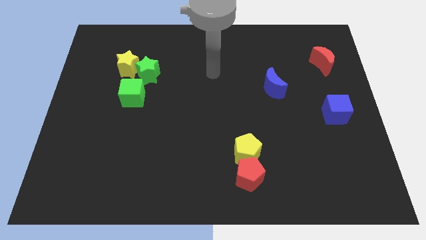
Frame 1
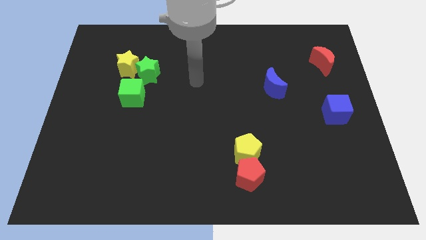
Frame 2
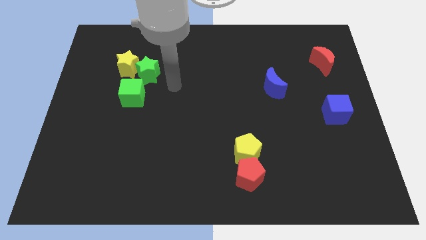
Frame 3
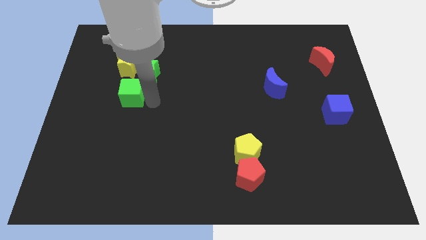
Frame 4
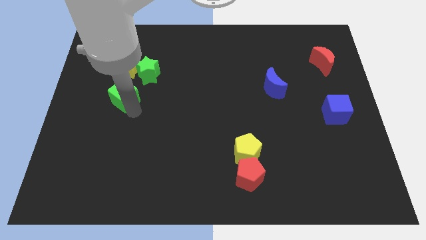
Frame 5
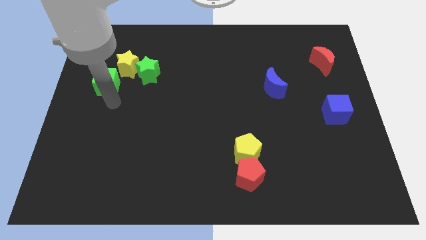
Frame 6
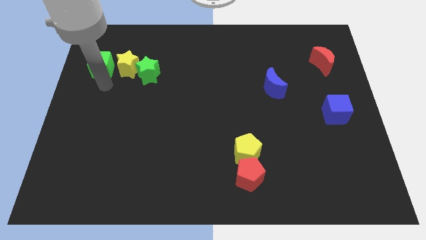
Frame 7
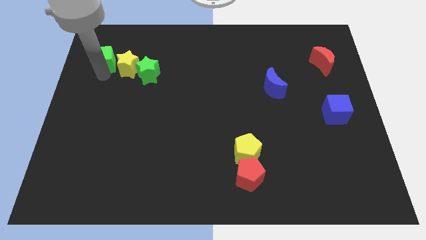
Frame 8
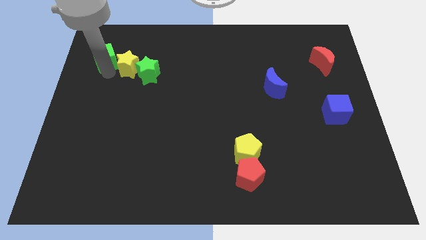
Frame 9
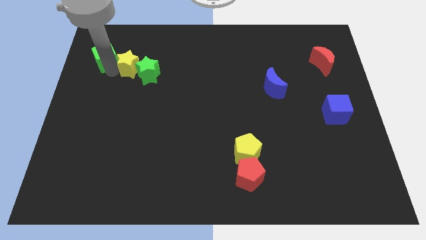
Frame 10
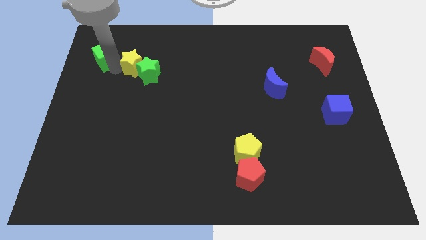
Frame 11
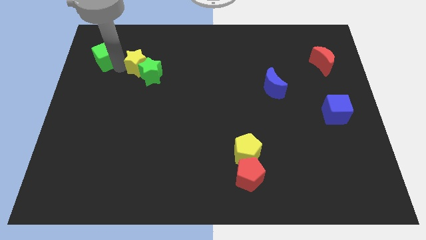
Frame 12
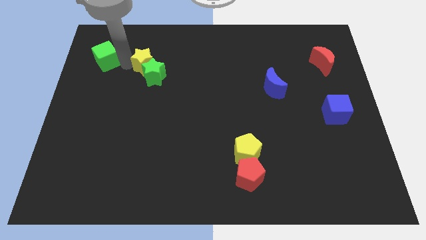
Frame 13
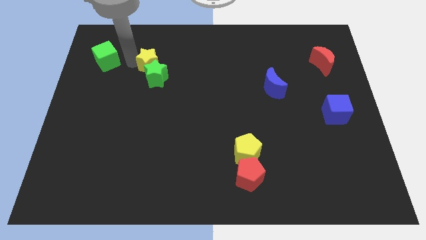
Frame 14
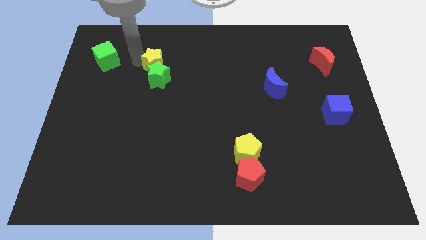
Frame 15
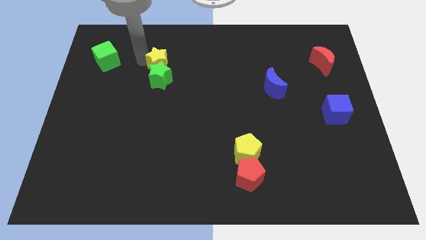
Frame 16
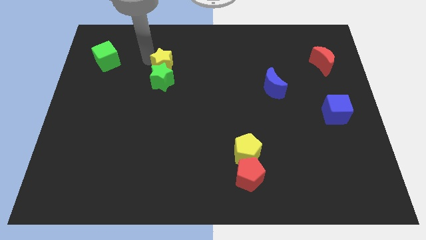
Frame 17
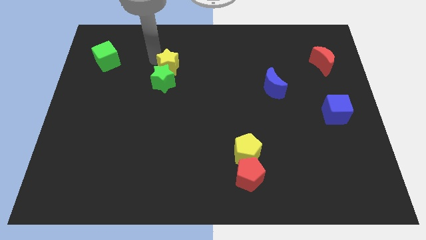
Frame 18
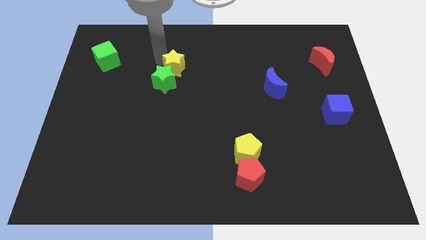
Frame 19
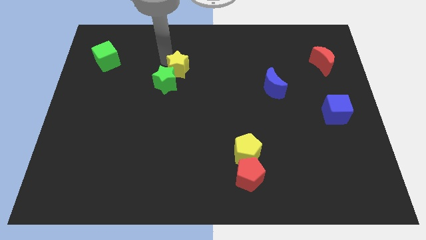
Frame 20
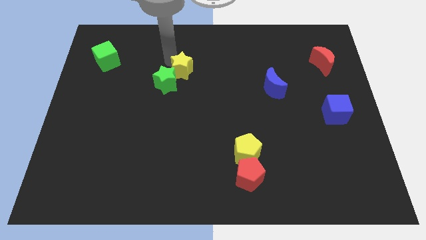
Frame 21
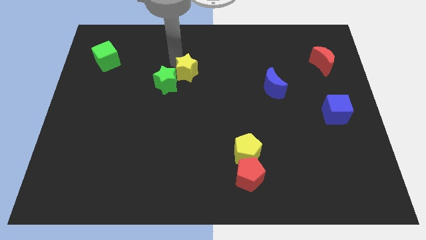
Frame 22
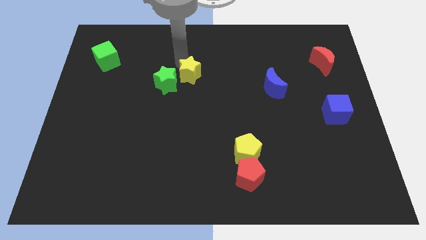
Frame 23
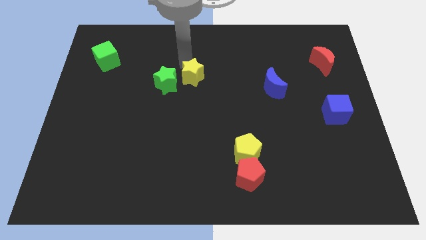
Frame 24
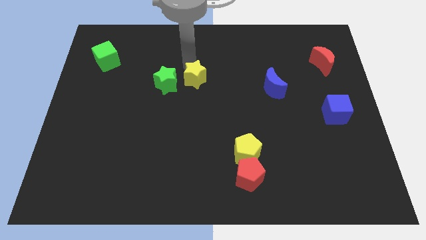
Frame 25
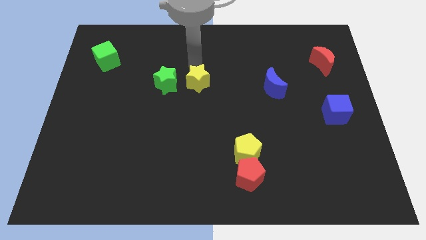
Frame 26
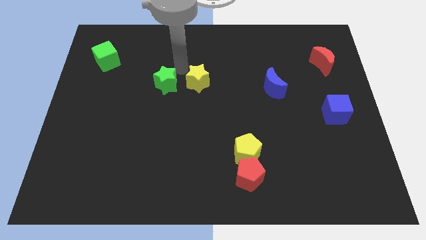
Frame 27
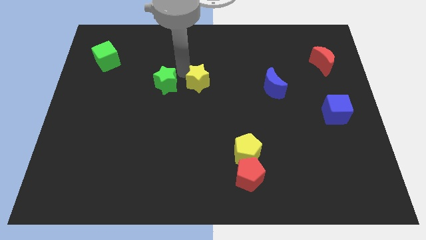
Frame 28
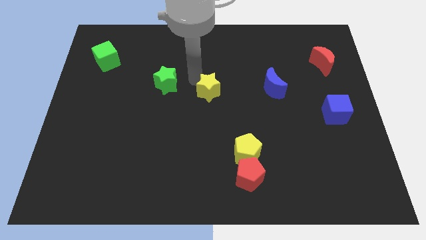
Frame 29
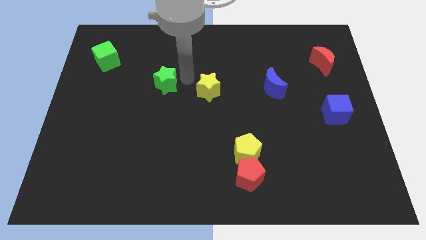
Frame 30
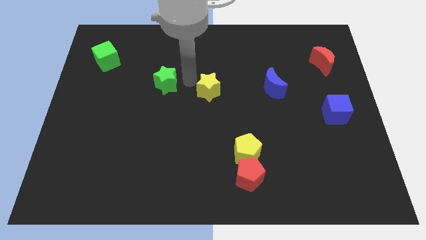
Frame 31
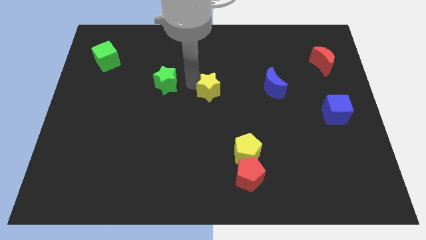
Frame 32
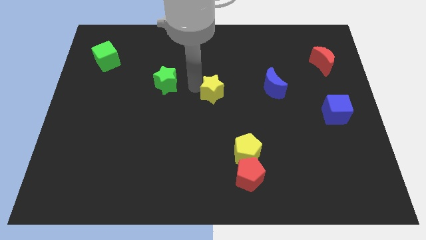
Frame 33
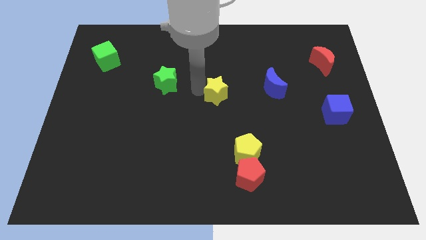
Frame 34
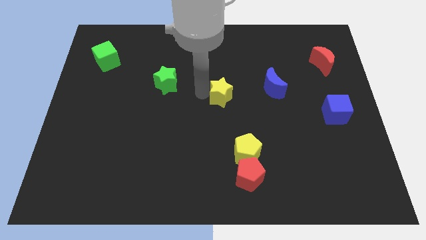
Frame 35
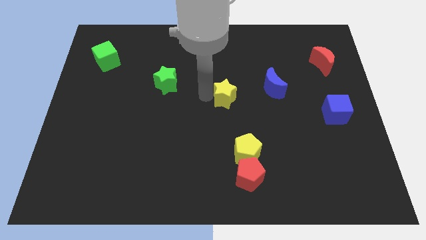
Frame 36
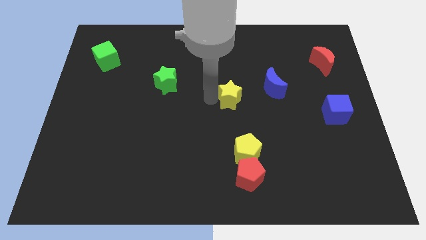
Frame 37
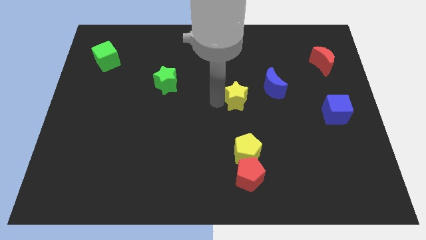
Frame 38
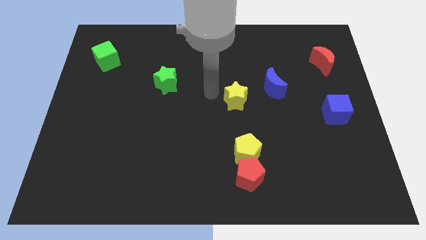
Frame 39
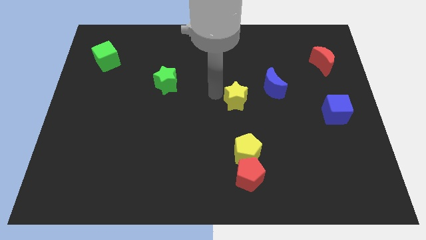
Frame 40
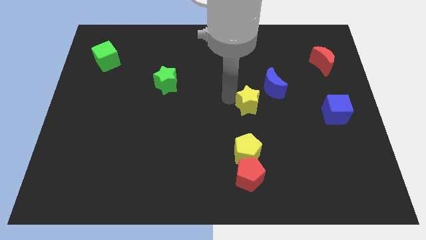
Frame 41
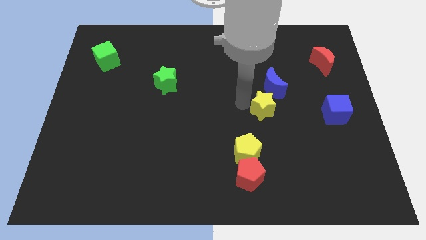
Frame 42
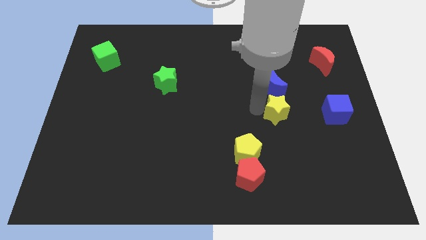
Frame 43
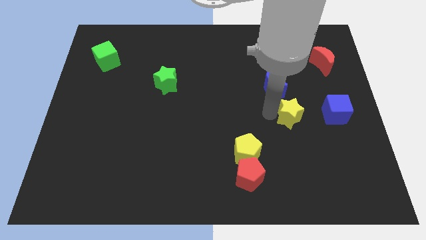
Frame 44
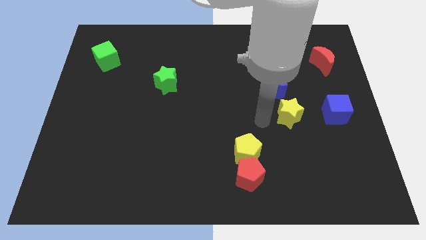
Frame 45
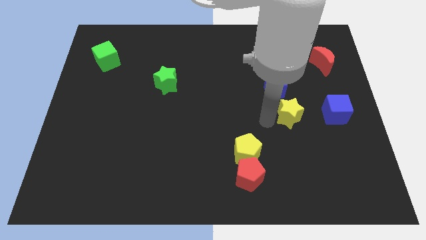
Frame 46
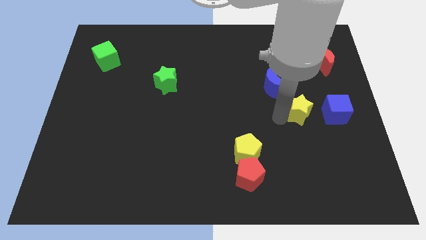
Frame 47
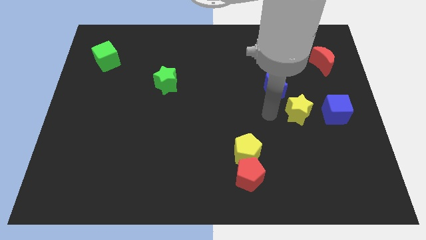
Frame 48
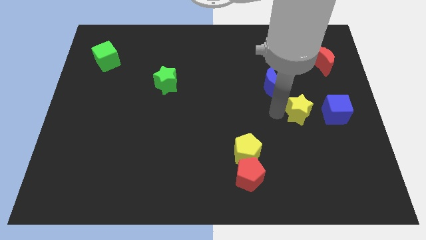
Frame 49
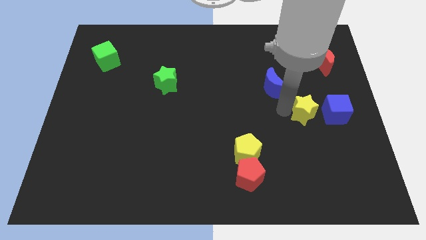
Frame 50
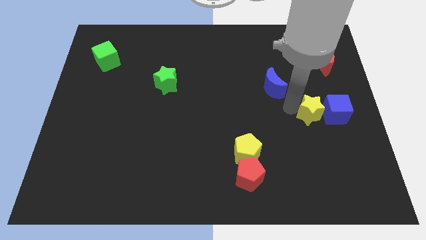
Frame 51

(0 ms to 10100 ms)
move the yellow star close to the blue cube

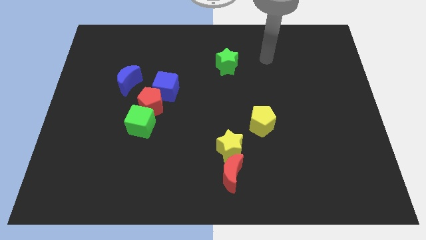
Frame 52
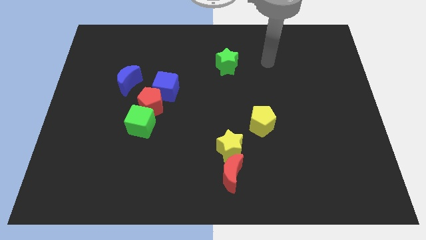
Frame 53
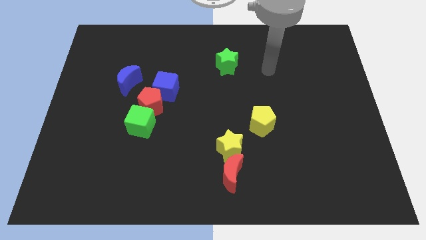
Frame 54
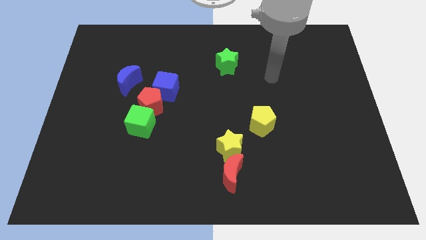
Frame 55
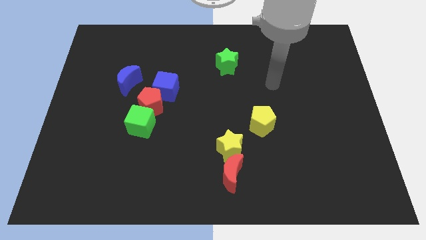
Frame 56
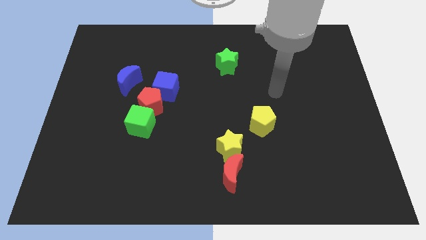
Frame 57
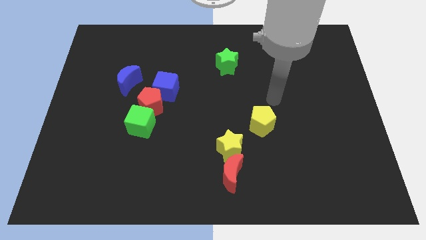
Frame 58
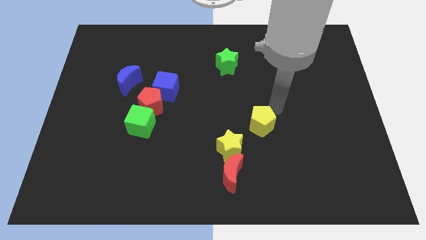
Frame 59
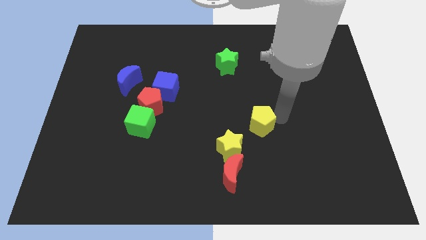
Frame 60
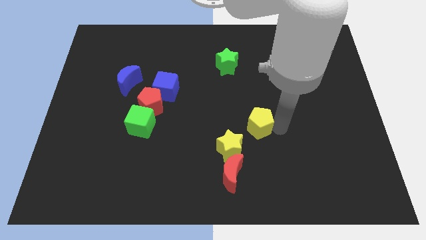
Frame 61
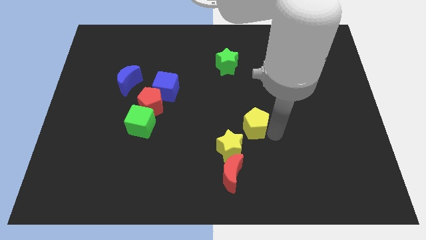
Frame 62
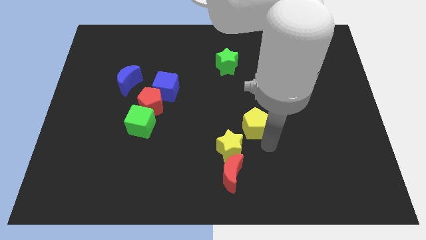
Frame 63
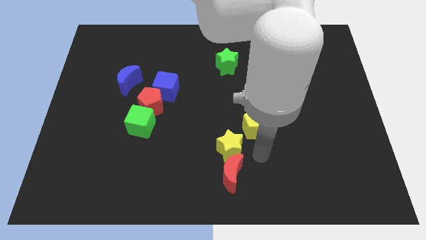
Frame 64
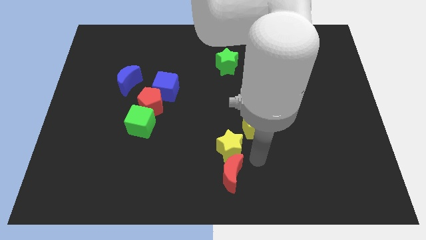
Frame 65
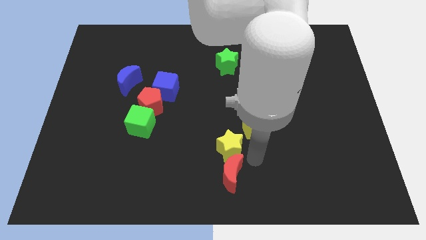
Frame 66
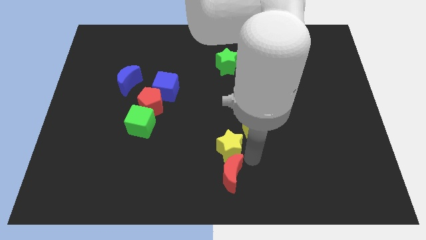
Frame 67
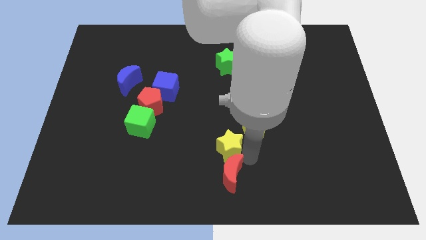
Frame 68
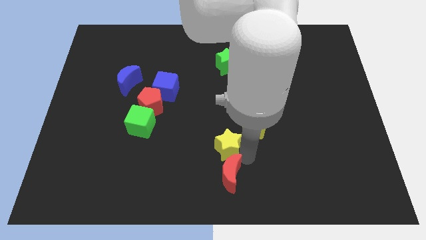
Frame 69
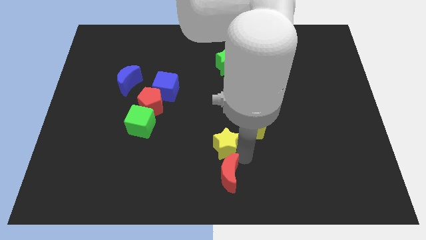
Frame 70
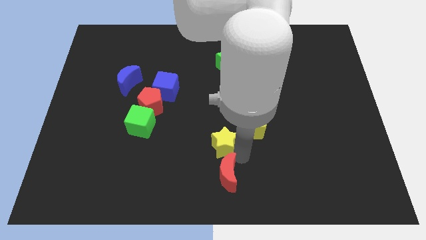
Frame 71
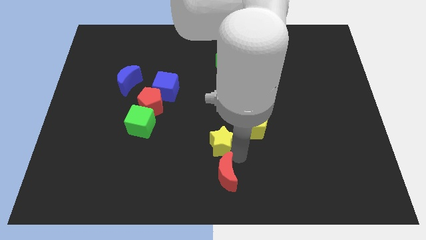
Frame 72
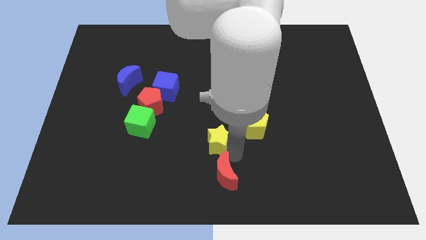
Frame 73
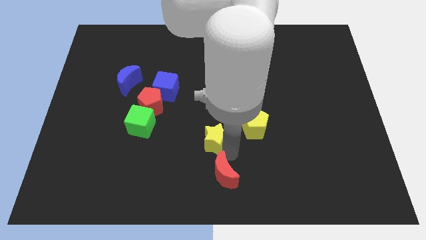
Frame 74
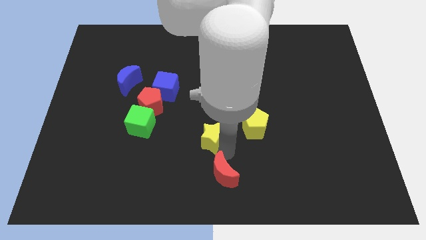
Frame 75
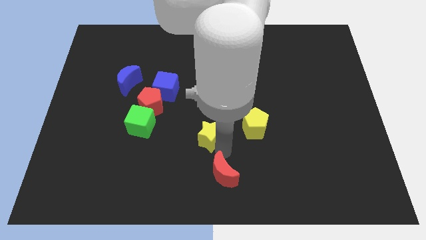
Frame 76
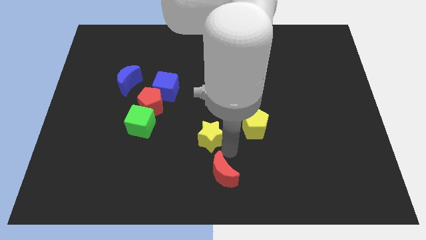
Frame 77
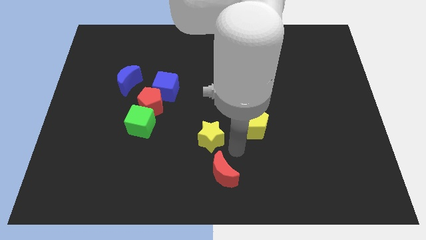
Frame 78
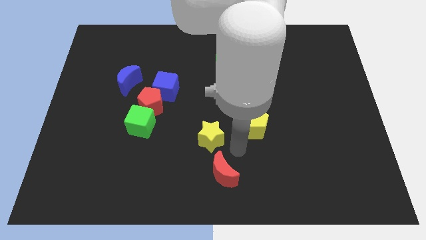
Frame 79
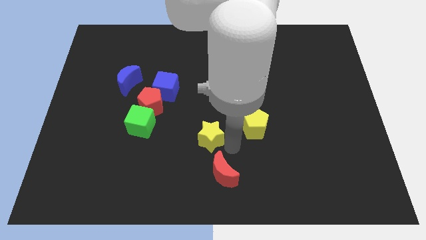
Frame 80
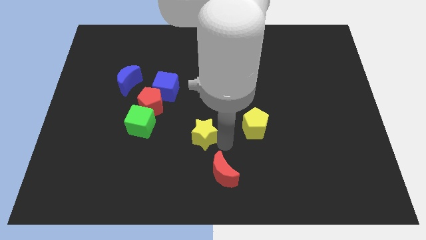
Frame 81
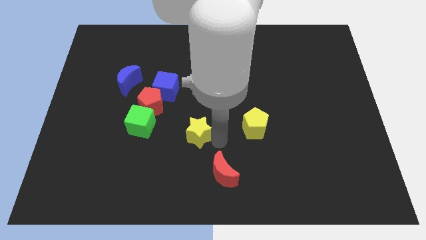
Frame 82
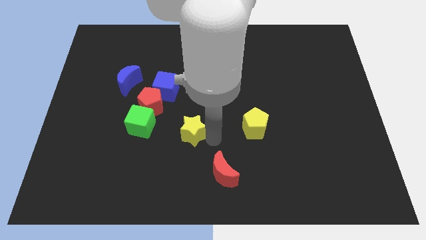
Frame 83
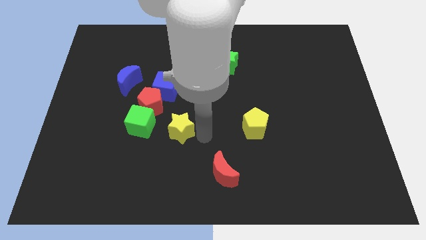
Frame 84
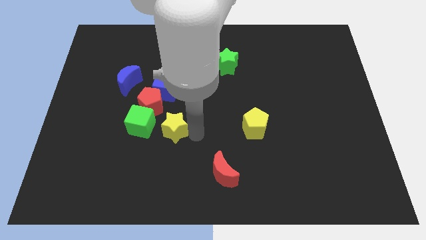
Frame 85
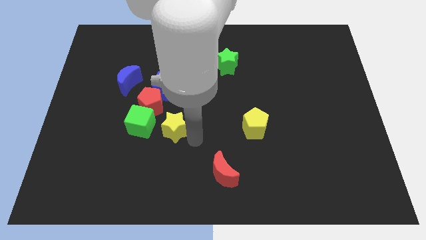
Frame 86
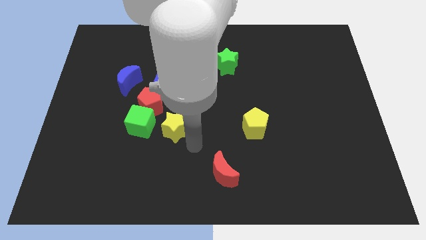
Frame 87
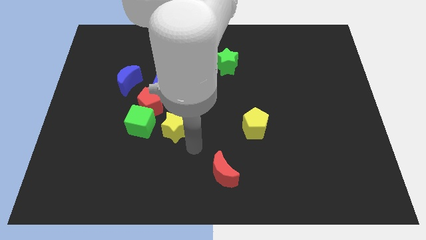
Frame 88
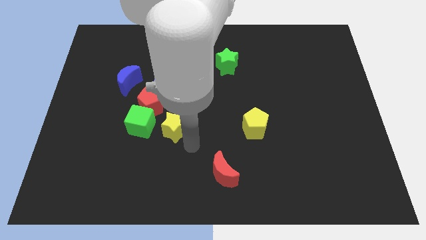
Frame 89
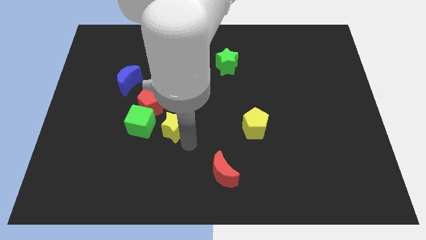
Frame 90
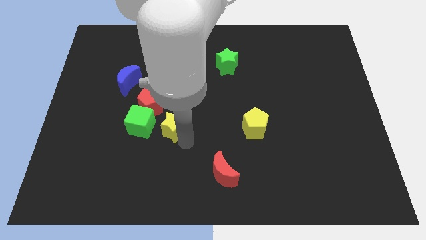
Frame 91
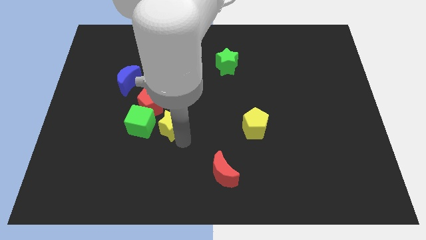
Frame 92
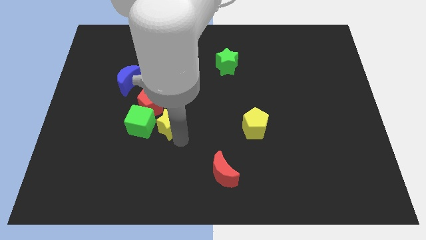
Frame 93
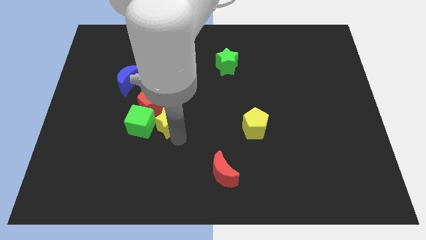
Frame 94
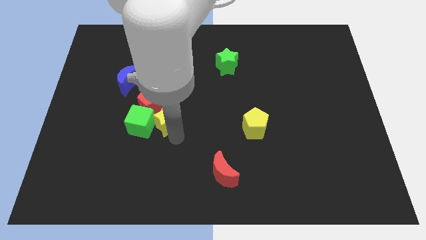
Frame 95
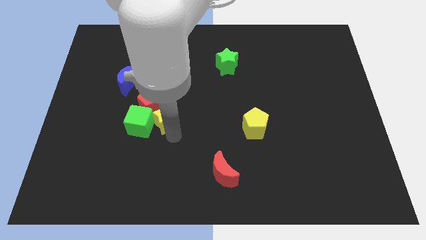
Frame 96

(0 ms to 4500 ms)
slide the yellow star to the red pentagon
